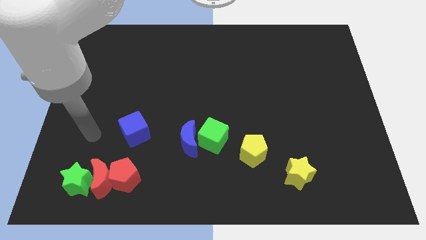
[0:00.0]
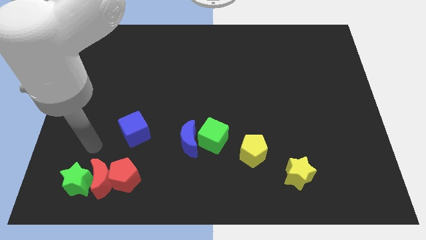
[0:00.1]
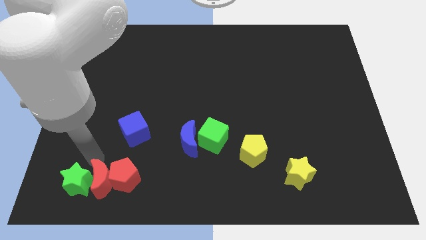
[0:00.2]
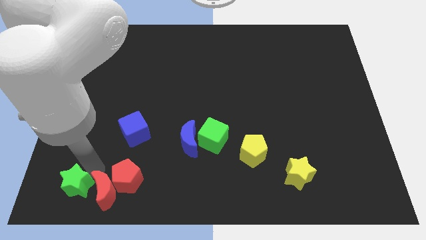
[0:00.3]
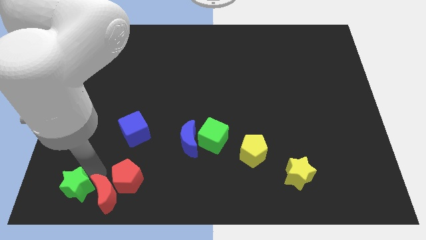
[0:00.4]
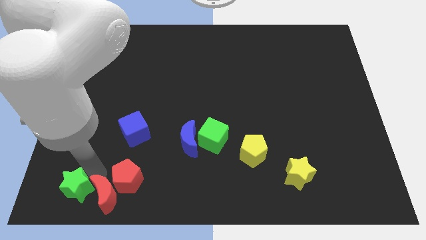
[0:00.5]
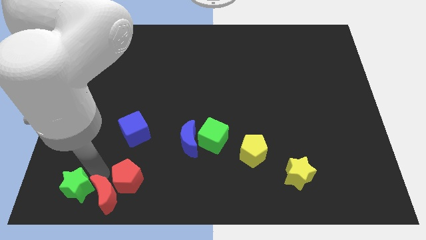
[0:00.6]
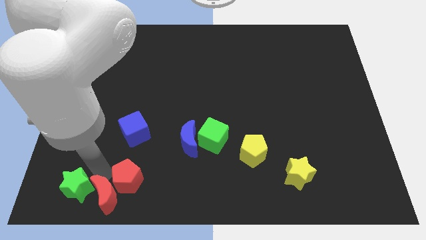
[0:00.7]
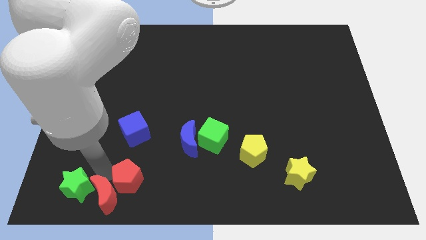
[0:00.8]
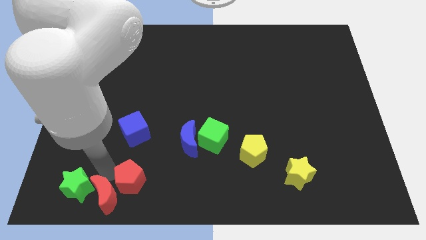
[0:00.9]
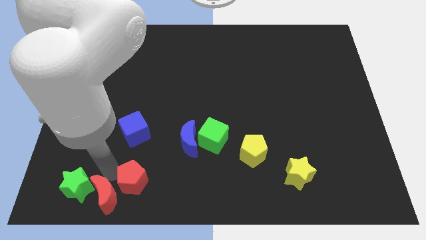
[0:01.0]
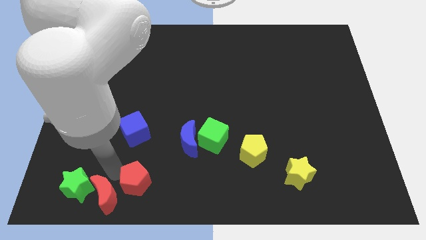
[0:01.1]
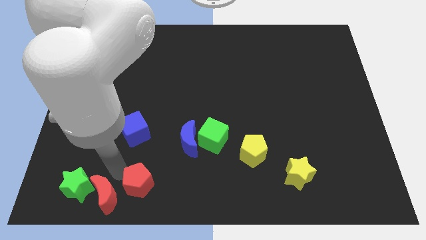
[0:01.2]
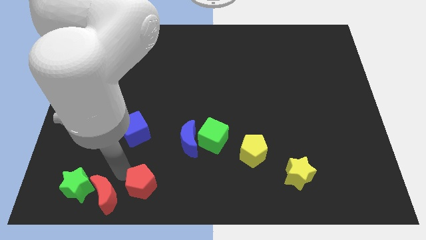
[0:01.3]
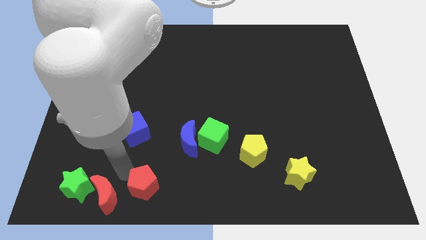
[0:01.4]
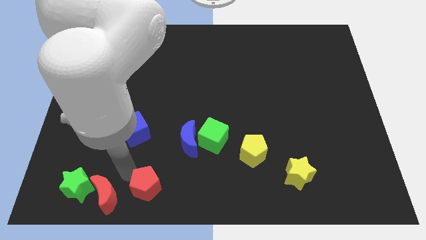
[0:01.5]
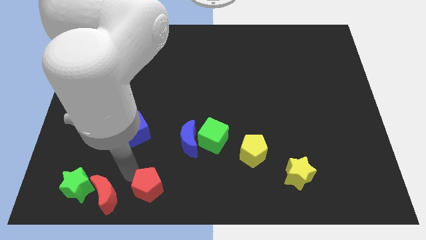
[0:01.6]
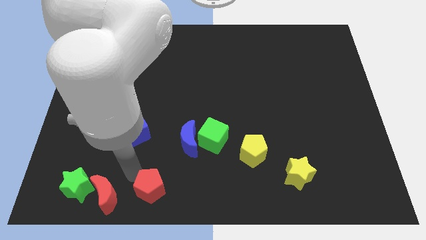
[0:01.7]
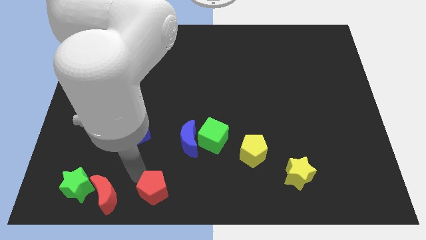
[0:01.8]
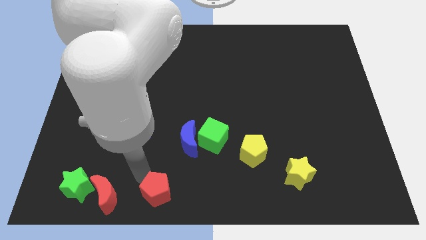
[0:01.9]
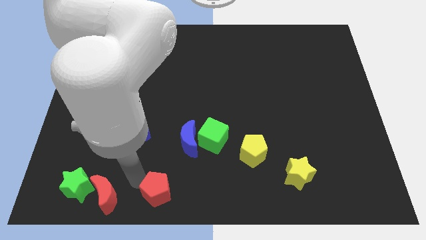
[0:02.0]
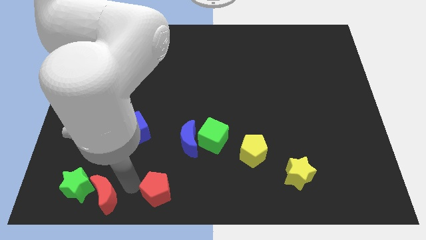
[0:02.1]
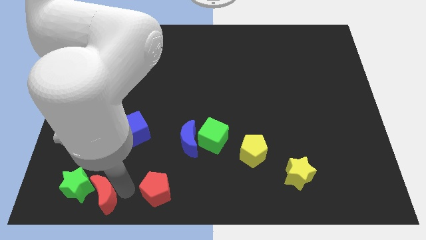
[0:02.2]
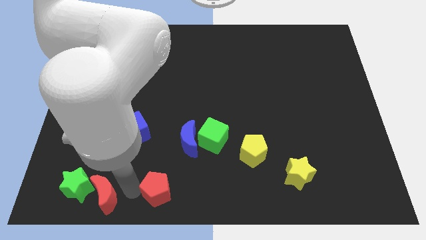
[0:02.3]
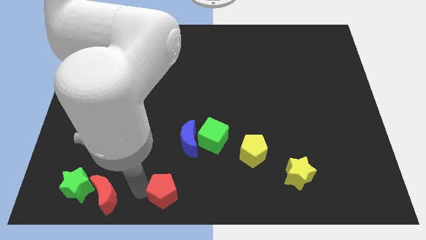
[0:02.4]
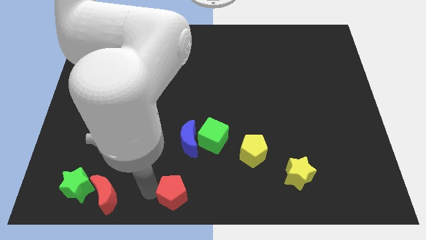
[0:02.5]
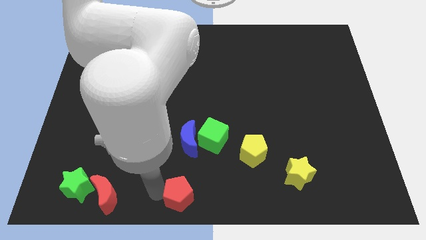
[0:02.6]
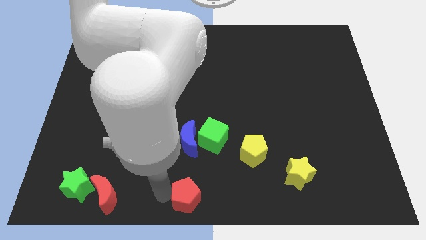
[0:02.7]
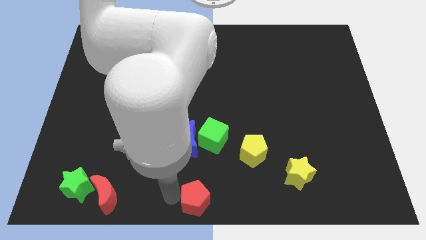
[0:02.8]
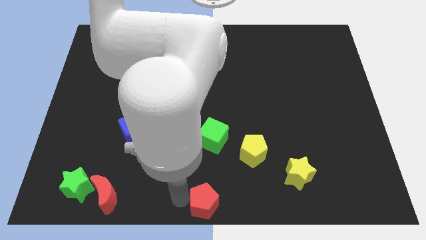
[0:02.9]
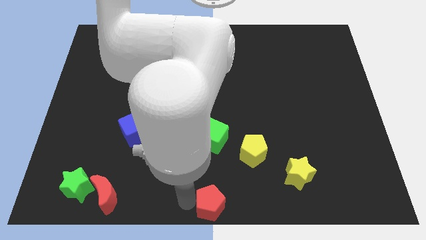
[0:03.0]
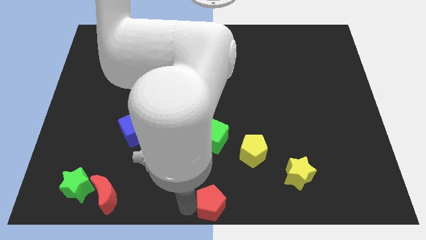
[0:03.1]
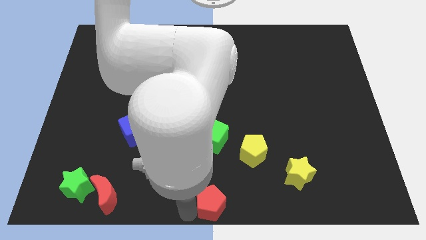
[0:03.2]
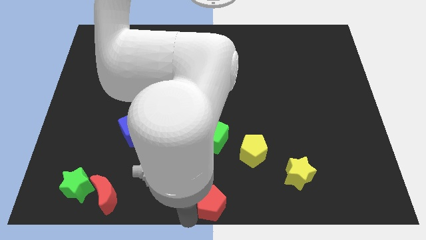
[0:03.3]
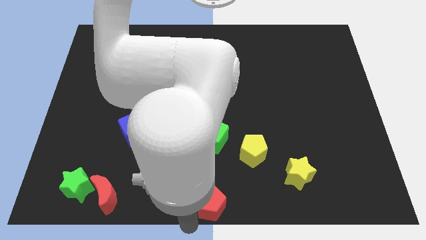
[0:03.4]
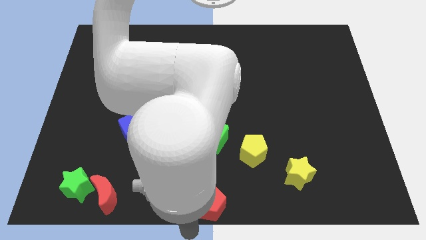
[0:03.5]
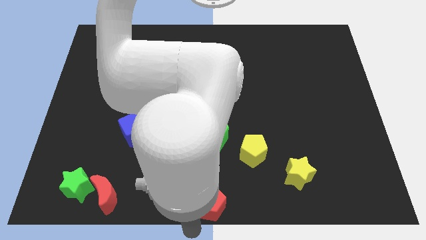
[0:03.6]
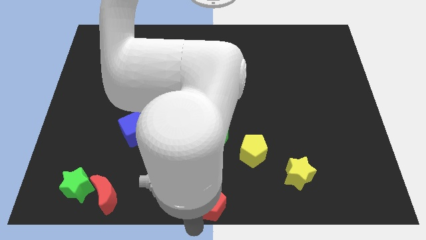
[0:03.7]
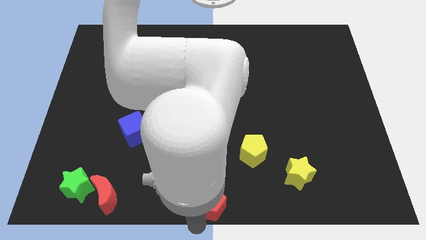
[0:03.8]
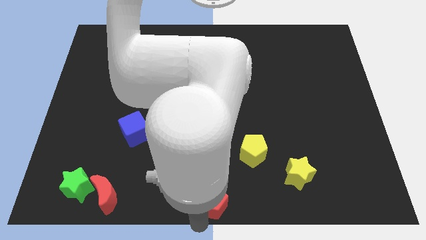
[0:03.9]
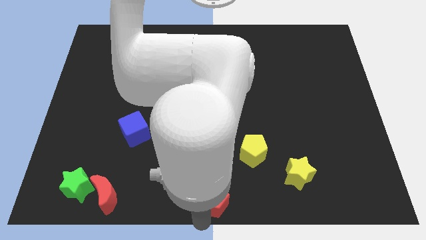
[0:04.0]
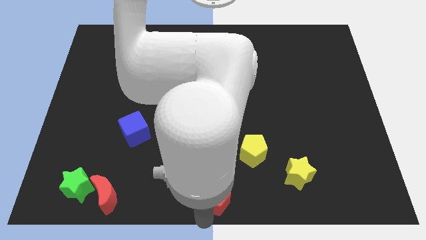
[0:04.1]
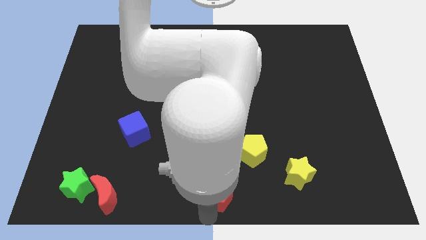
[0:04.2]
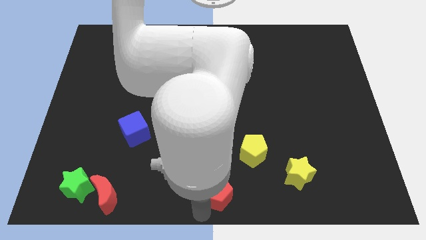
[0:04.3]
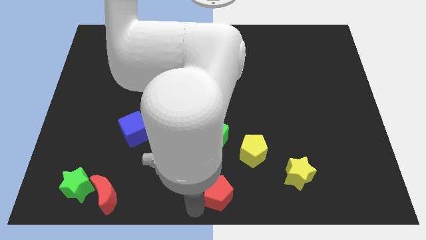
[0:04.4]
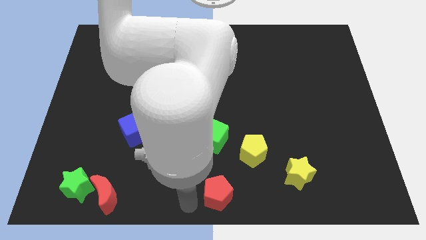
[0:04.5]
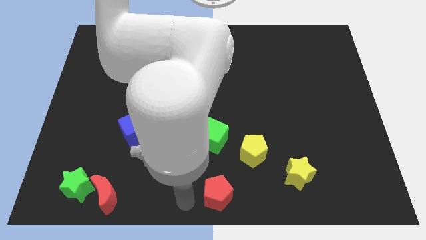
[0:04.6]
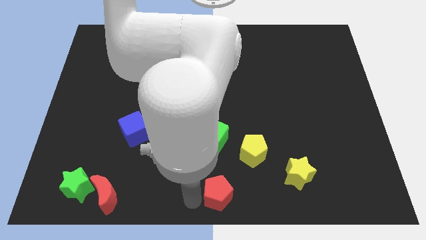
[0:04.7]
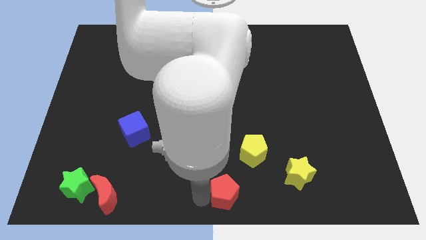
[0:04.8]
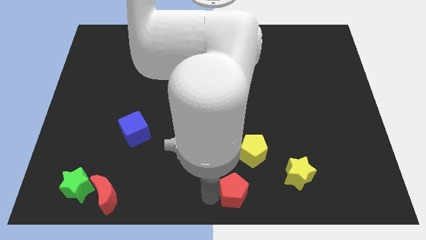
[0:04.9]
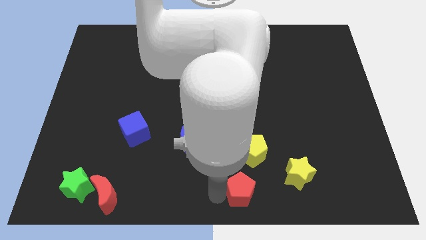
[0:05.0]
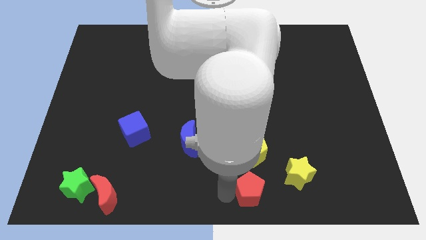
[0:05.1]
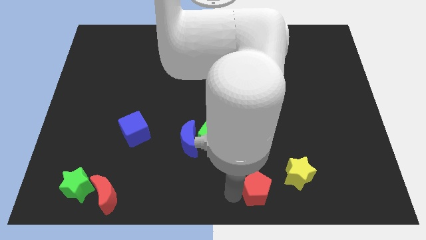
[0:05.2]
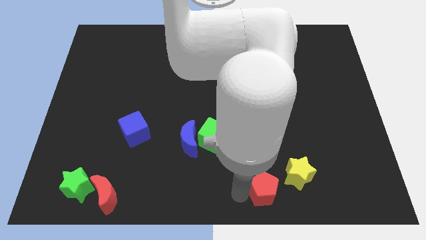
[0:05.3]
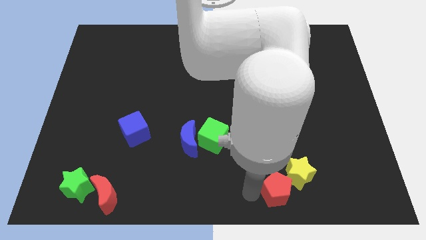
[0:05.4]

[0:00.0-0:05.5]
put the red pentagon next to the yellow star

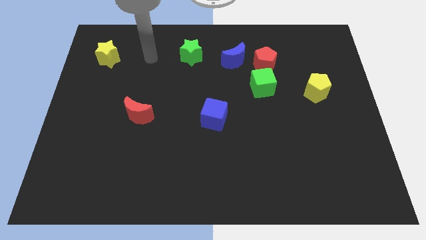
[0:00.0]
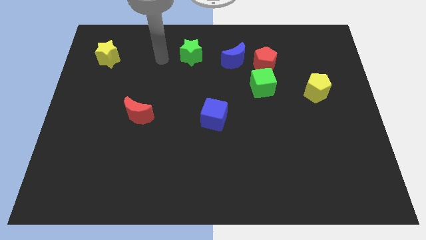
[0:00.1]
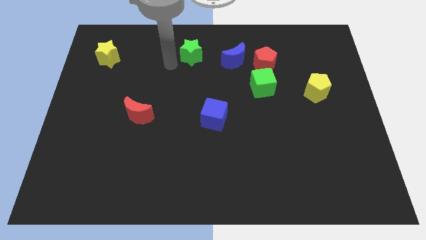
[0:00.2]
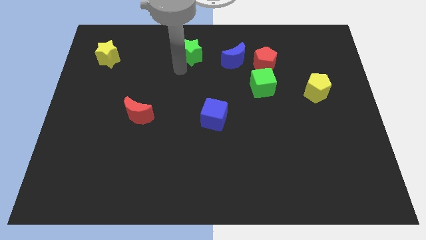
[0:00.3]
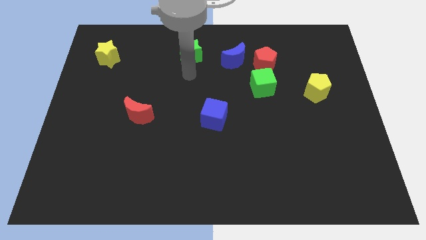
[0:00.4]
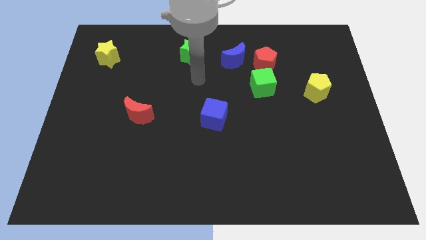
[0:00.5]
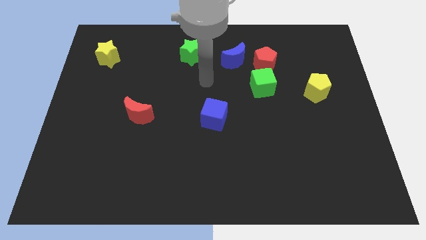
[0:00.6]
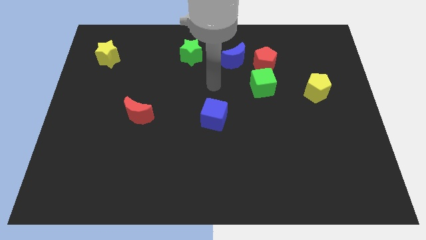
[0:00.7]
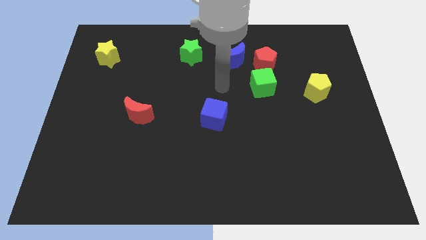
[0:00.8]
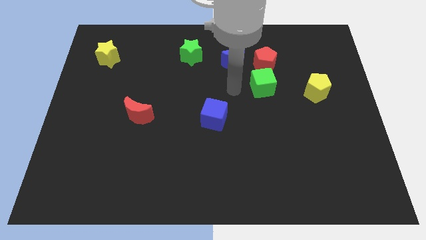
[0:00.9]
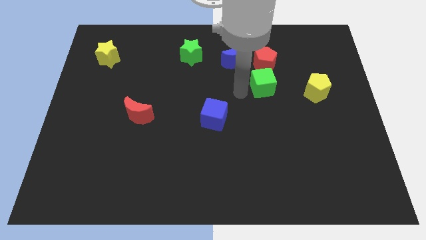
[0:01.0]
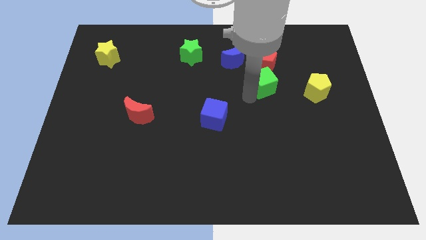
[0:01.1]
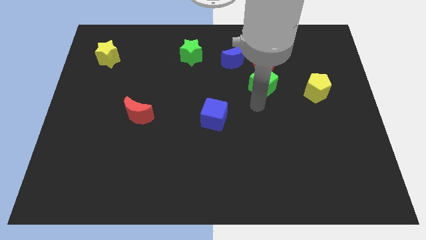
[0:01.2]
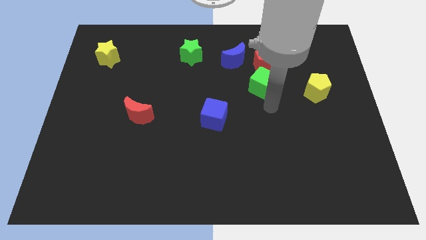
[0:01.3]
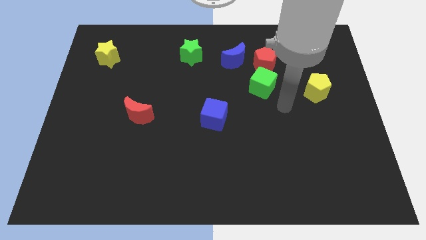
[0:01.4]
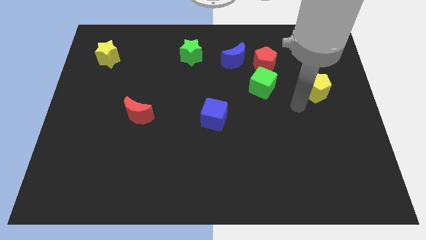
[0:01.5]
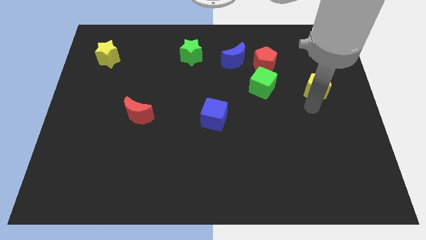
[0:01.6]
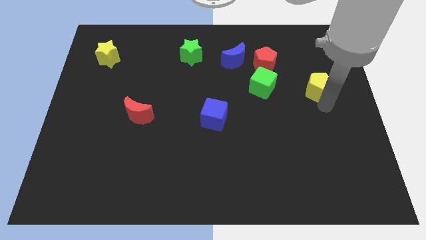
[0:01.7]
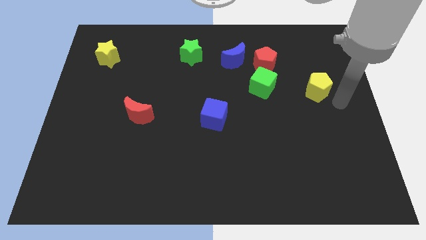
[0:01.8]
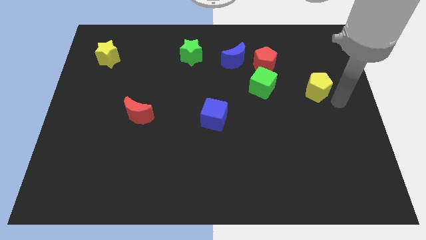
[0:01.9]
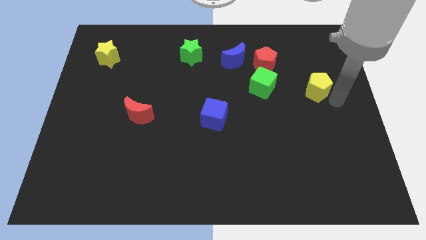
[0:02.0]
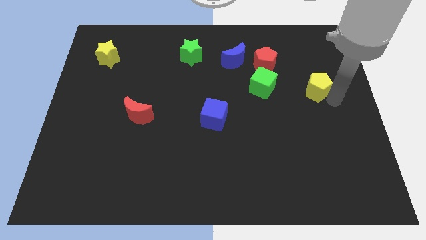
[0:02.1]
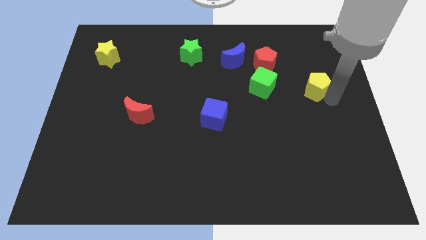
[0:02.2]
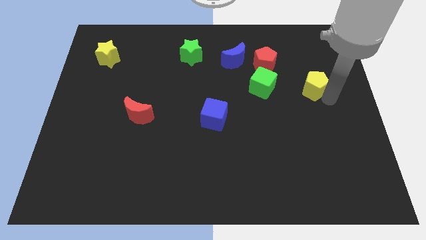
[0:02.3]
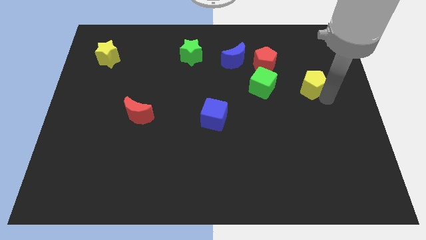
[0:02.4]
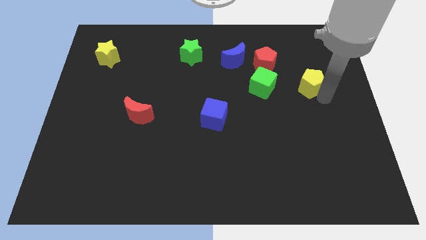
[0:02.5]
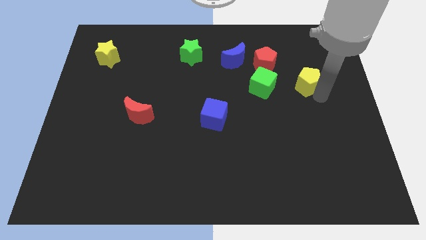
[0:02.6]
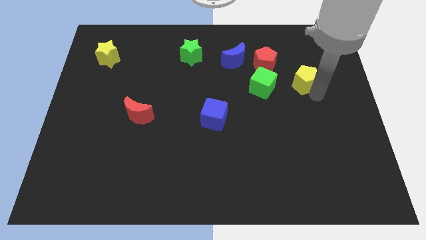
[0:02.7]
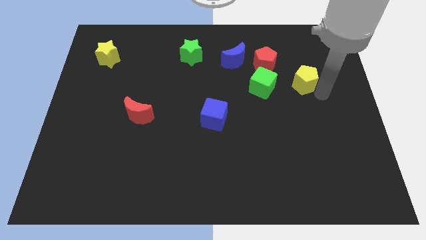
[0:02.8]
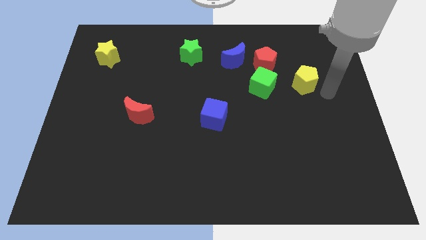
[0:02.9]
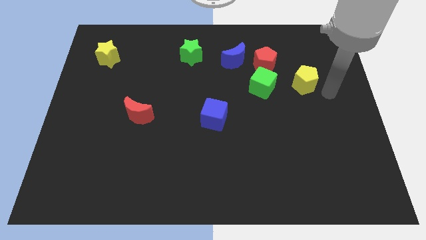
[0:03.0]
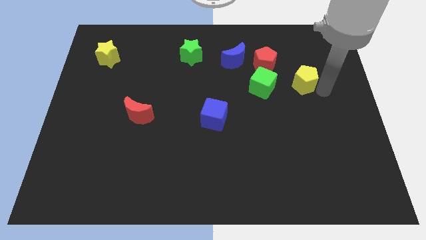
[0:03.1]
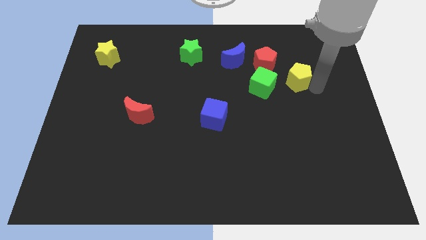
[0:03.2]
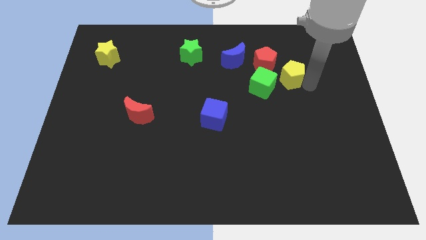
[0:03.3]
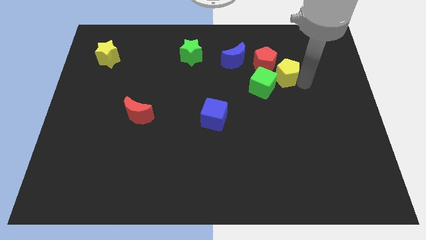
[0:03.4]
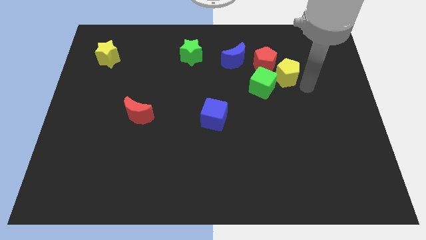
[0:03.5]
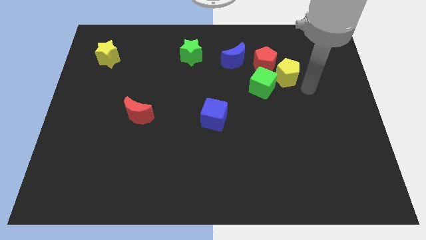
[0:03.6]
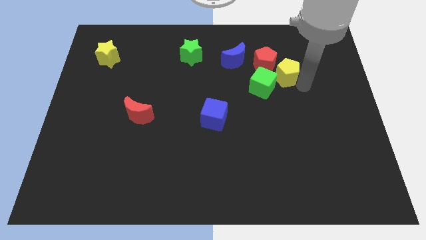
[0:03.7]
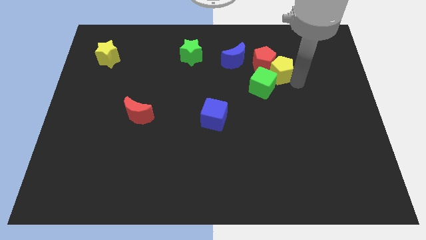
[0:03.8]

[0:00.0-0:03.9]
push the yellow pentagon next to the red pentagon
